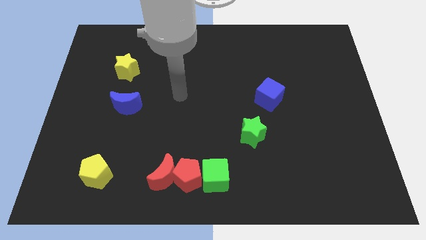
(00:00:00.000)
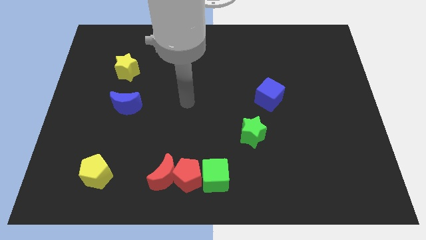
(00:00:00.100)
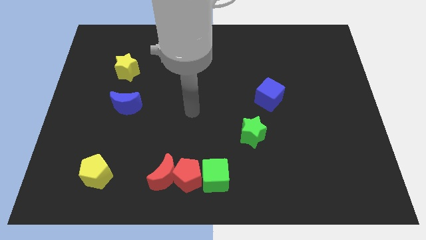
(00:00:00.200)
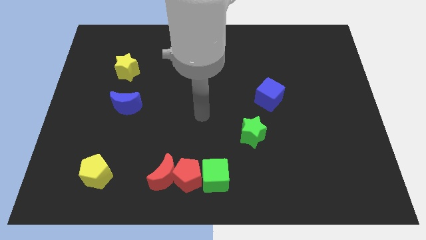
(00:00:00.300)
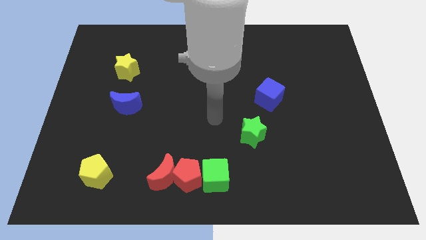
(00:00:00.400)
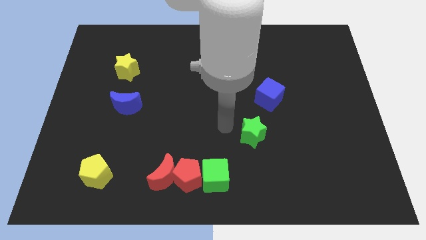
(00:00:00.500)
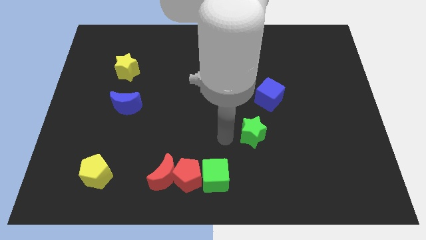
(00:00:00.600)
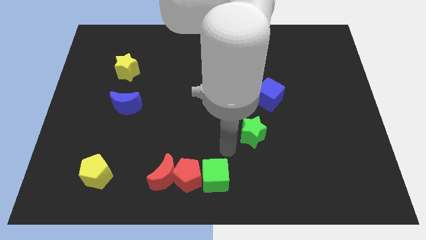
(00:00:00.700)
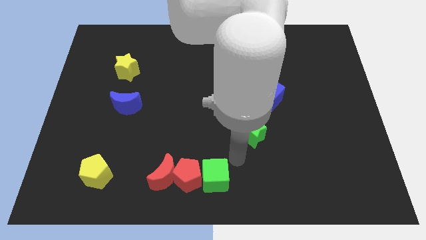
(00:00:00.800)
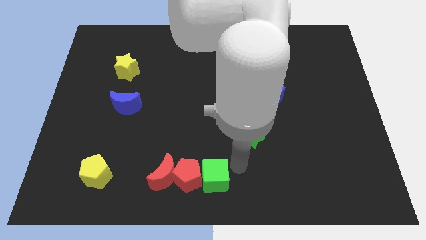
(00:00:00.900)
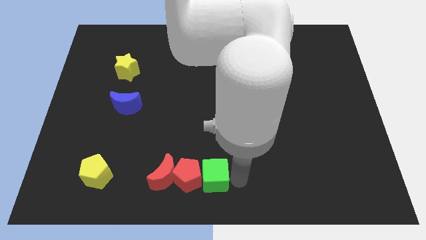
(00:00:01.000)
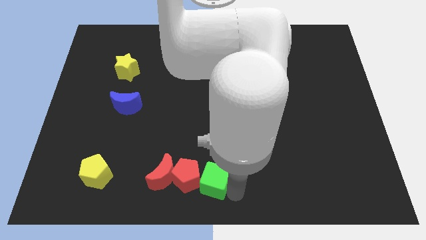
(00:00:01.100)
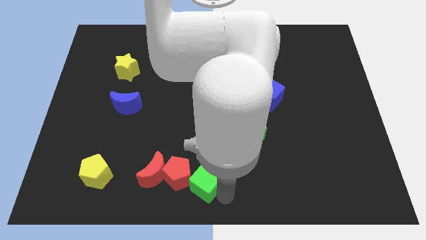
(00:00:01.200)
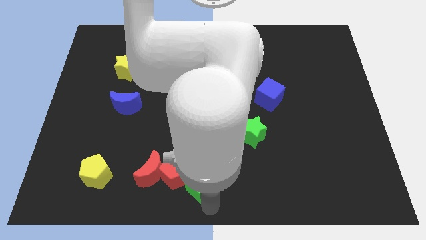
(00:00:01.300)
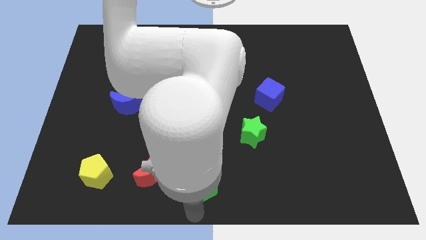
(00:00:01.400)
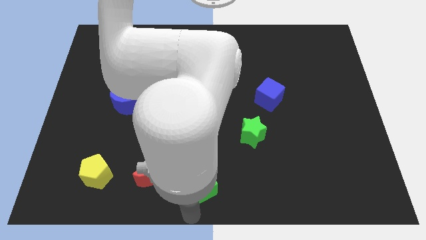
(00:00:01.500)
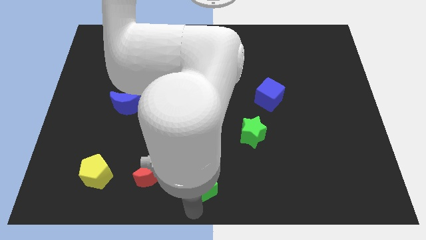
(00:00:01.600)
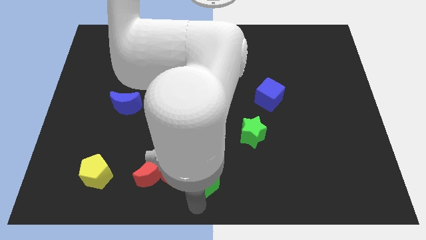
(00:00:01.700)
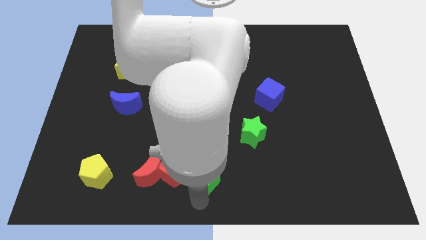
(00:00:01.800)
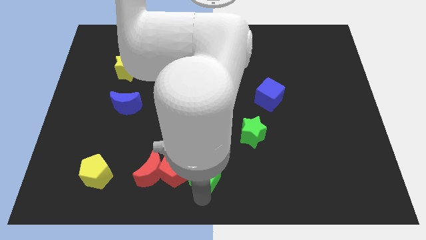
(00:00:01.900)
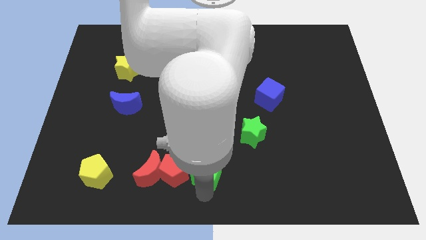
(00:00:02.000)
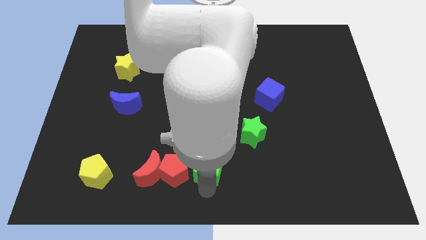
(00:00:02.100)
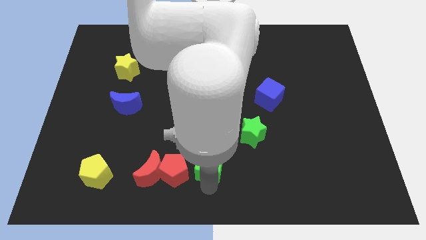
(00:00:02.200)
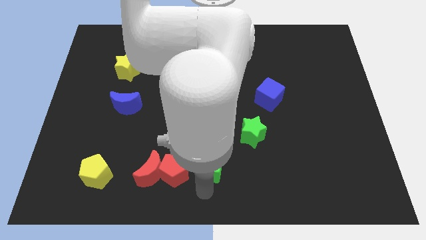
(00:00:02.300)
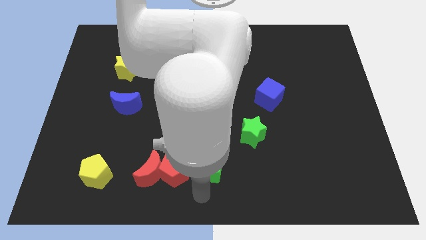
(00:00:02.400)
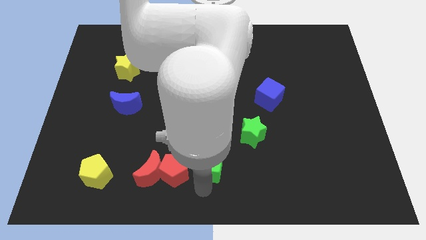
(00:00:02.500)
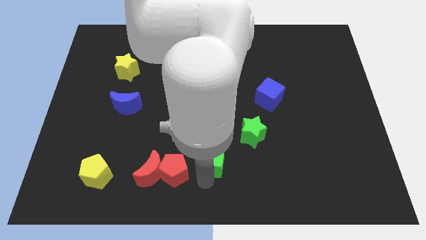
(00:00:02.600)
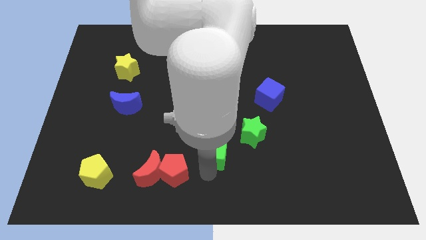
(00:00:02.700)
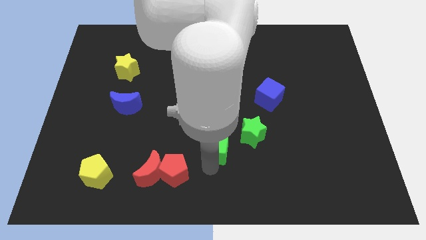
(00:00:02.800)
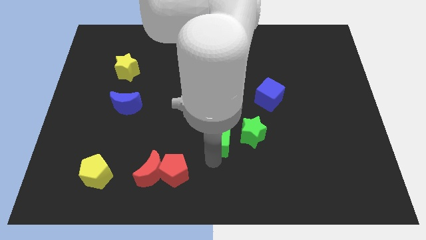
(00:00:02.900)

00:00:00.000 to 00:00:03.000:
slide the green cube a little up

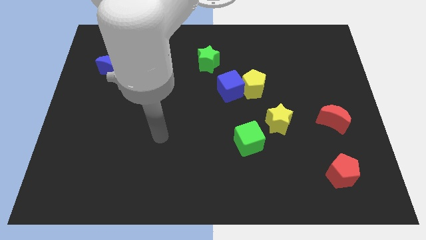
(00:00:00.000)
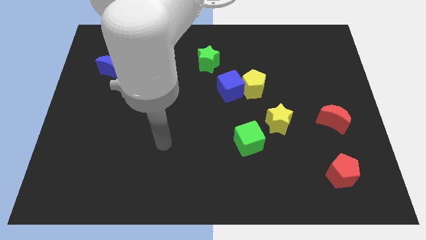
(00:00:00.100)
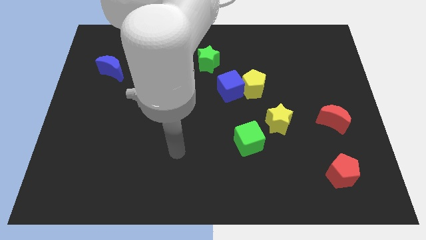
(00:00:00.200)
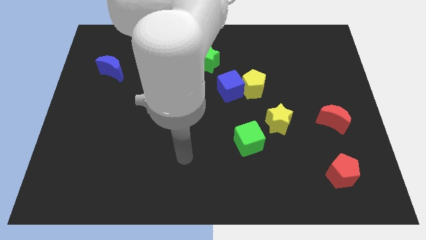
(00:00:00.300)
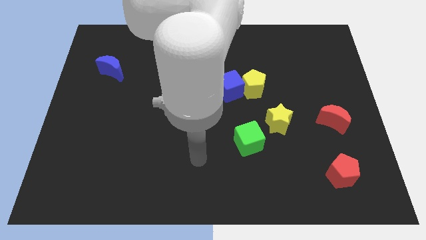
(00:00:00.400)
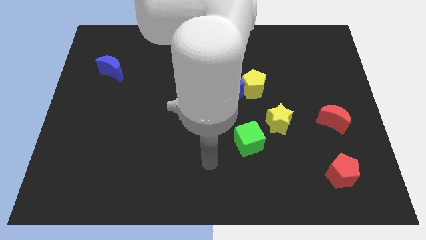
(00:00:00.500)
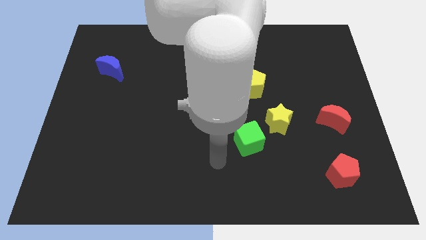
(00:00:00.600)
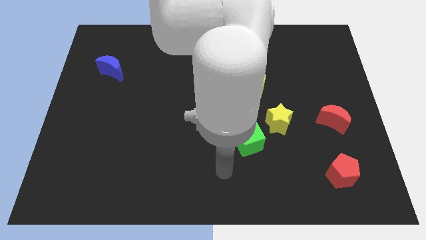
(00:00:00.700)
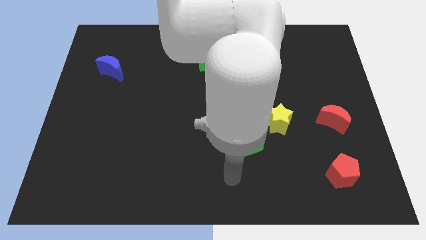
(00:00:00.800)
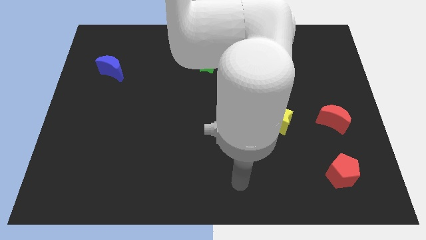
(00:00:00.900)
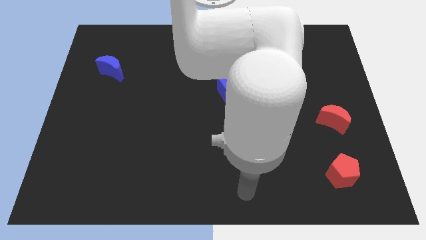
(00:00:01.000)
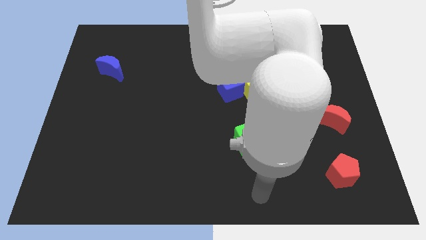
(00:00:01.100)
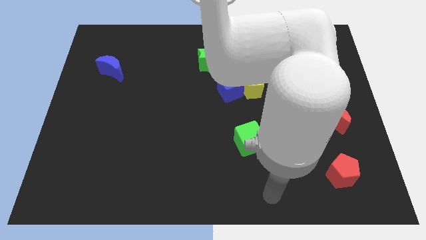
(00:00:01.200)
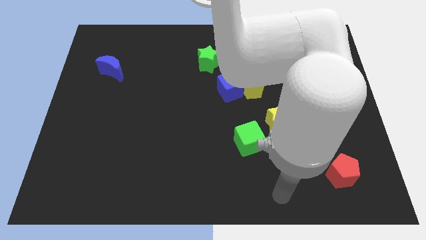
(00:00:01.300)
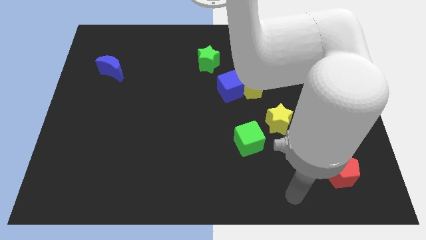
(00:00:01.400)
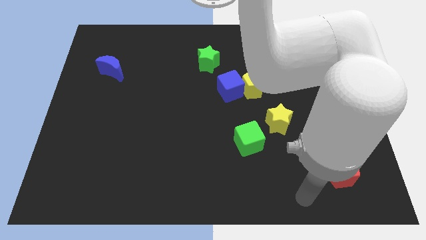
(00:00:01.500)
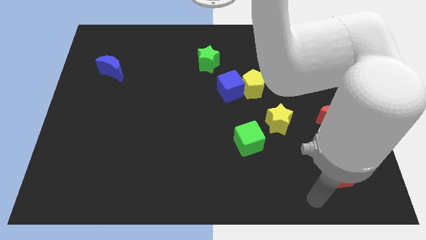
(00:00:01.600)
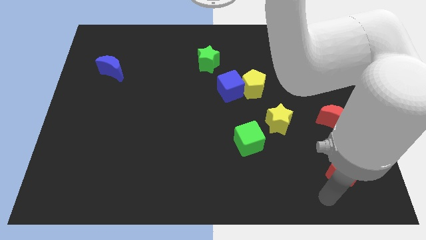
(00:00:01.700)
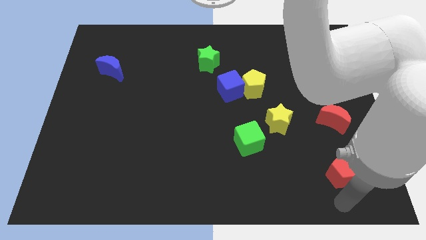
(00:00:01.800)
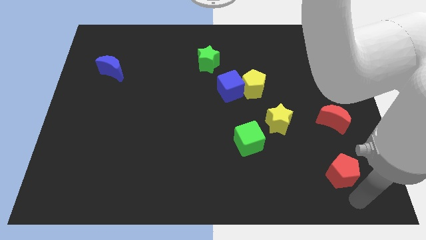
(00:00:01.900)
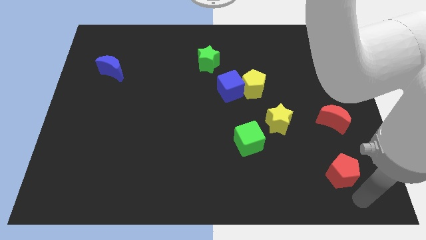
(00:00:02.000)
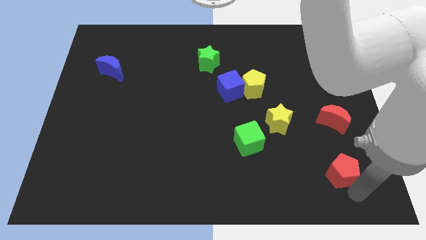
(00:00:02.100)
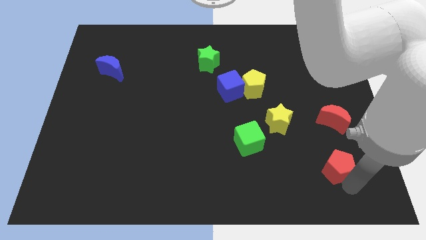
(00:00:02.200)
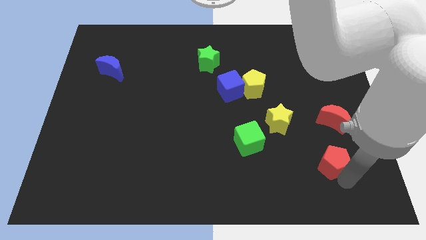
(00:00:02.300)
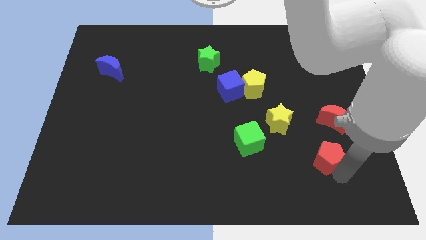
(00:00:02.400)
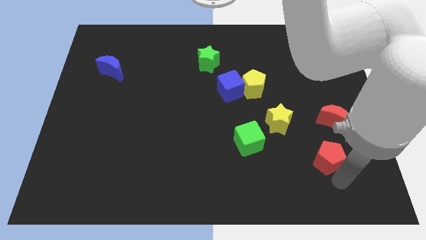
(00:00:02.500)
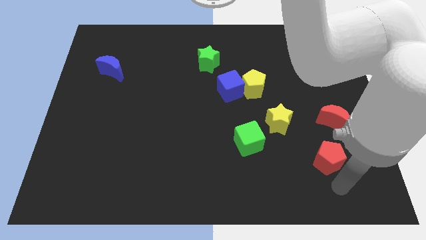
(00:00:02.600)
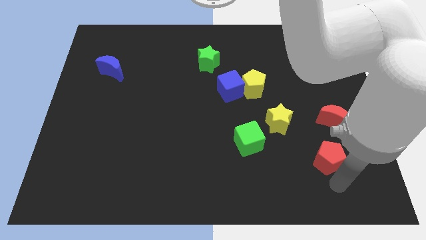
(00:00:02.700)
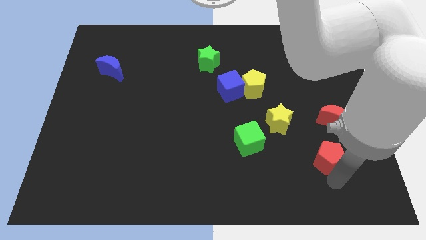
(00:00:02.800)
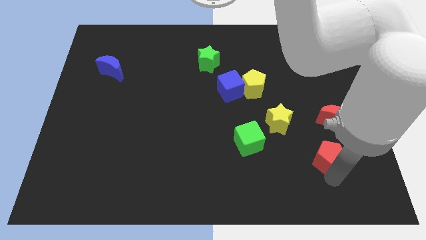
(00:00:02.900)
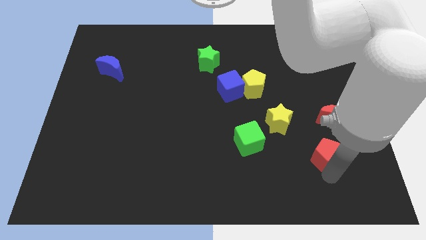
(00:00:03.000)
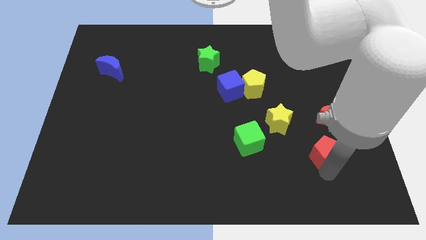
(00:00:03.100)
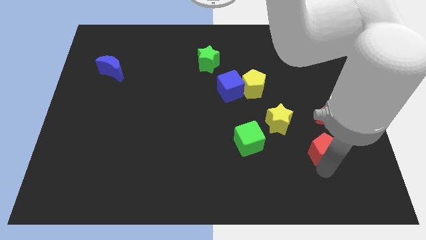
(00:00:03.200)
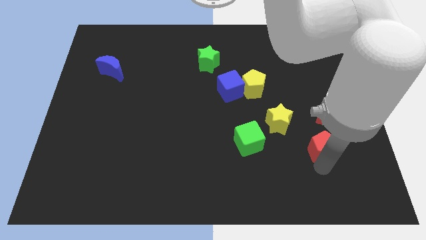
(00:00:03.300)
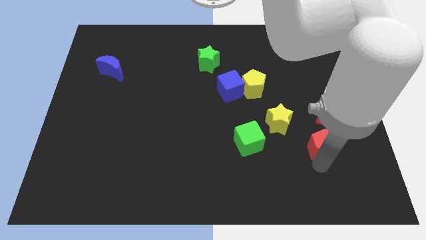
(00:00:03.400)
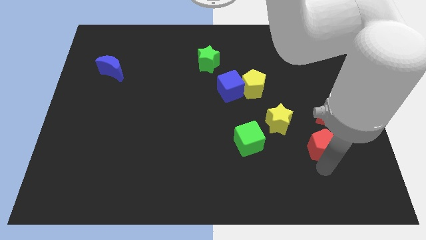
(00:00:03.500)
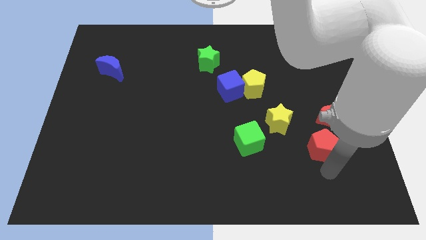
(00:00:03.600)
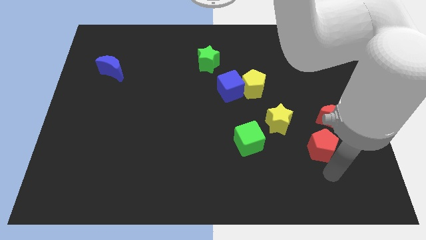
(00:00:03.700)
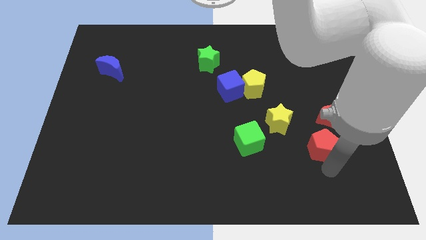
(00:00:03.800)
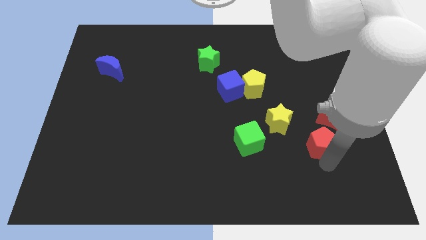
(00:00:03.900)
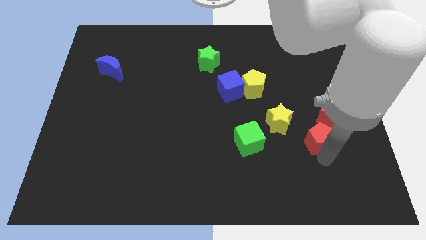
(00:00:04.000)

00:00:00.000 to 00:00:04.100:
move the red pentagon somewhat upwards

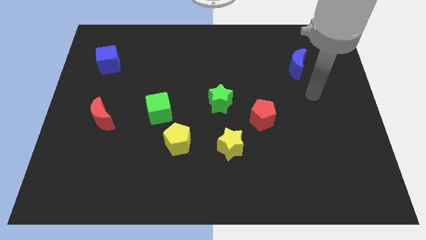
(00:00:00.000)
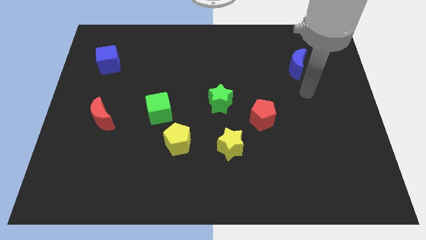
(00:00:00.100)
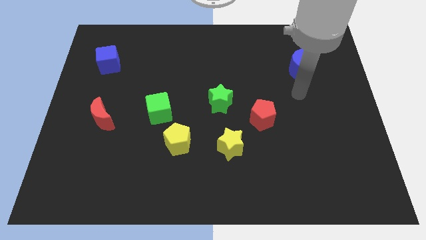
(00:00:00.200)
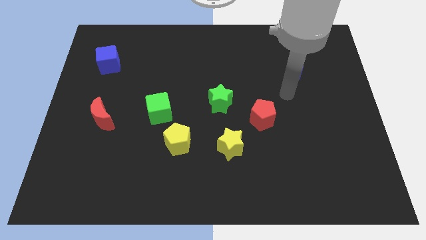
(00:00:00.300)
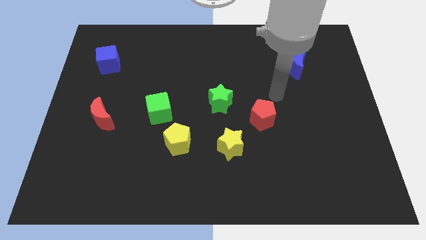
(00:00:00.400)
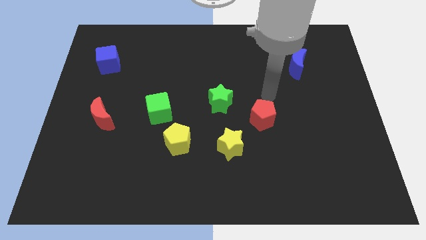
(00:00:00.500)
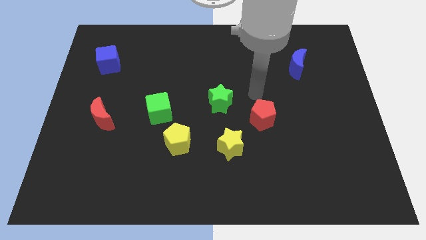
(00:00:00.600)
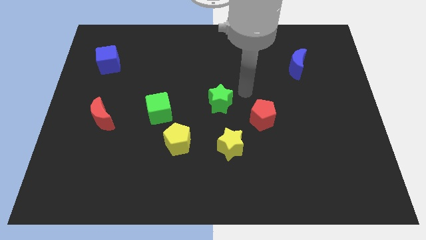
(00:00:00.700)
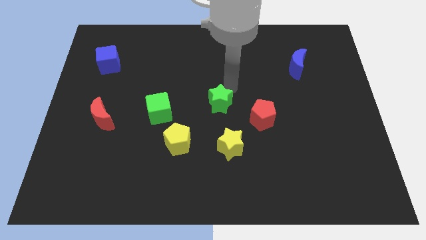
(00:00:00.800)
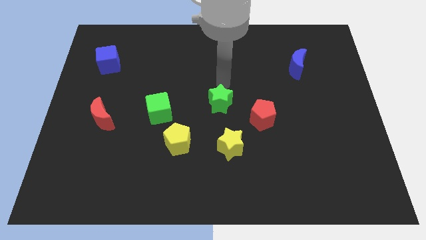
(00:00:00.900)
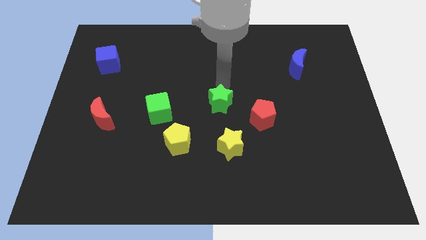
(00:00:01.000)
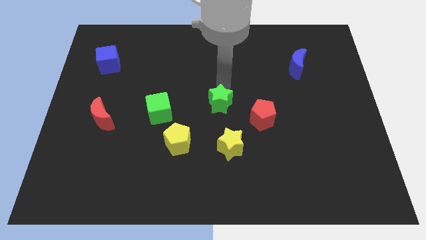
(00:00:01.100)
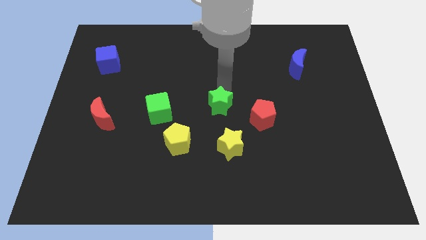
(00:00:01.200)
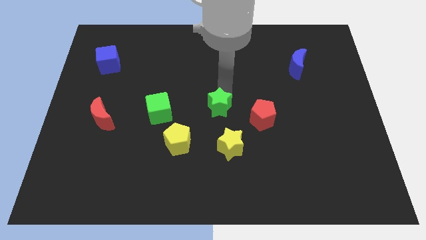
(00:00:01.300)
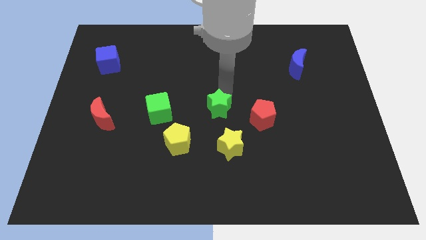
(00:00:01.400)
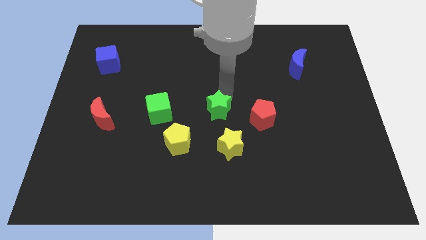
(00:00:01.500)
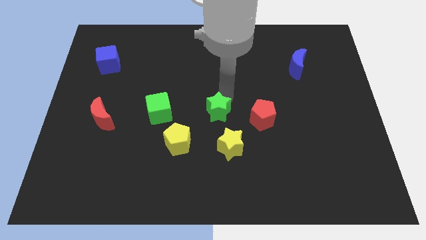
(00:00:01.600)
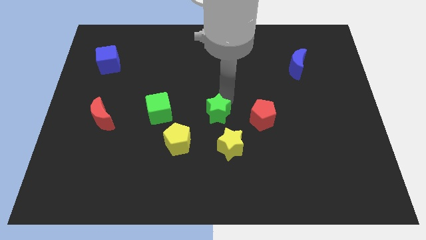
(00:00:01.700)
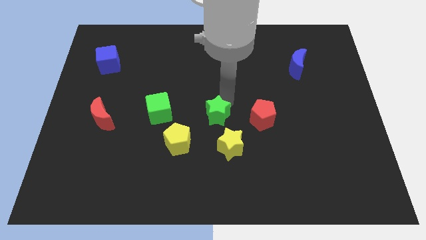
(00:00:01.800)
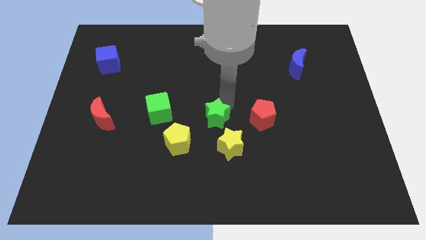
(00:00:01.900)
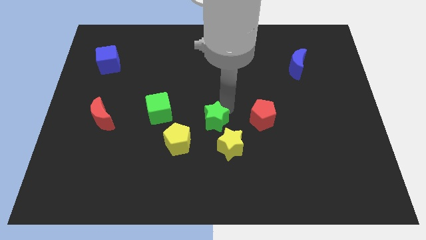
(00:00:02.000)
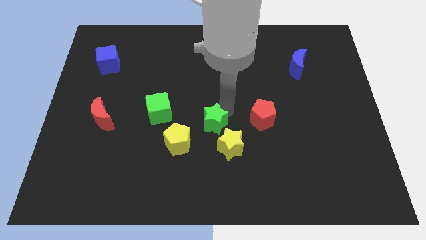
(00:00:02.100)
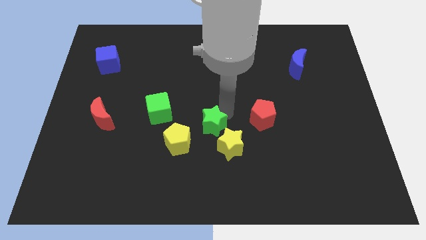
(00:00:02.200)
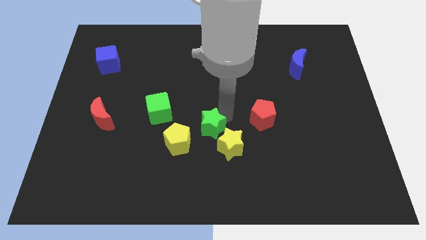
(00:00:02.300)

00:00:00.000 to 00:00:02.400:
push the green star a little bit down
